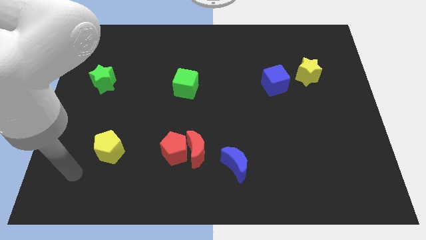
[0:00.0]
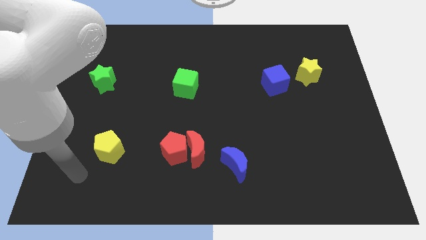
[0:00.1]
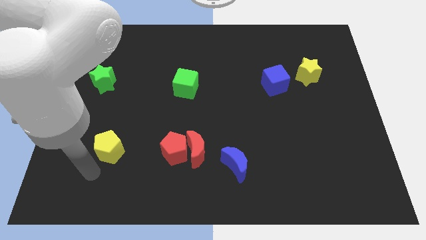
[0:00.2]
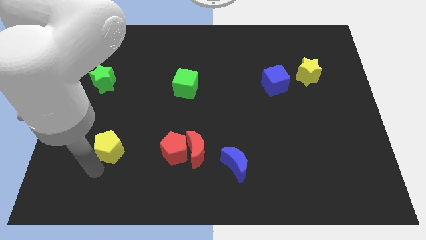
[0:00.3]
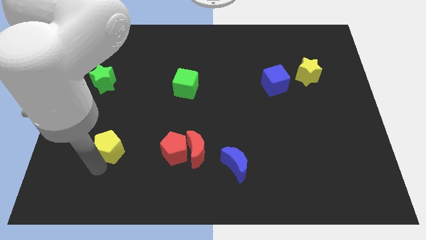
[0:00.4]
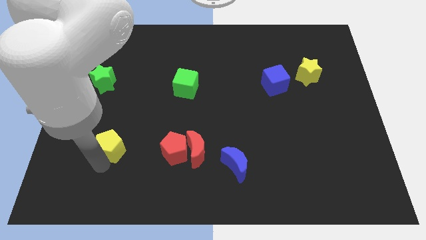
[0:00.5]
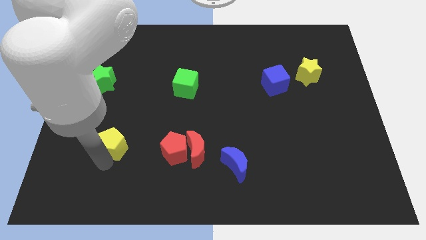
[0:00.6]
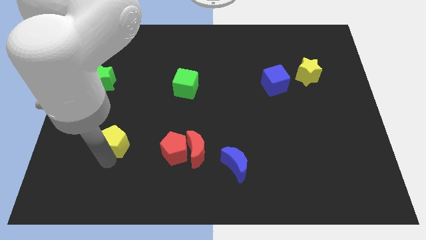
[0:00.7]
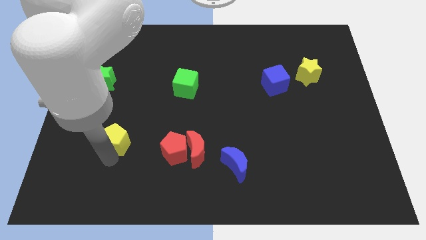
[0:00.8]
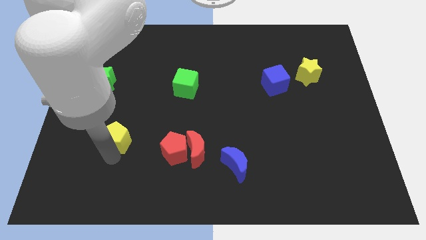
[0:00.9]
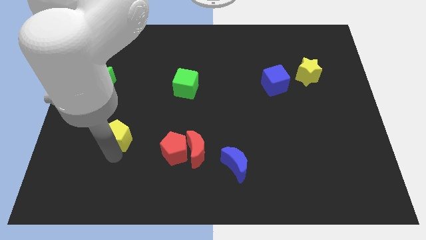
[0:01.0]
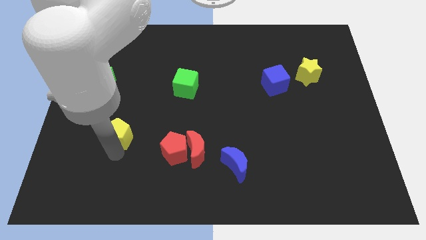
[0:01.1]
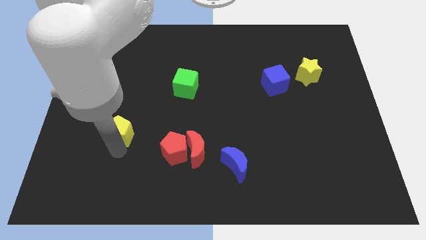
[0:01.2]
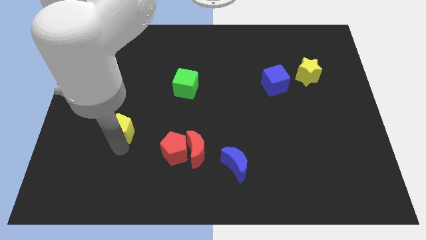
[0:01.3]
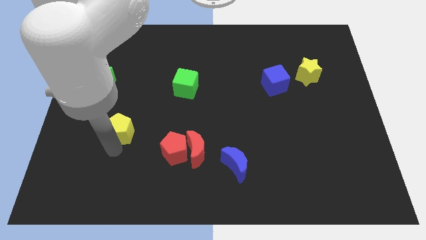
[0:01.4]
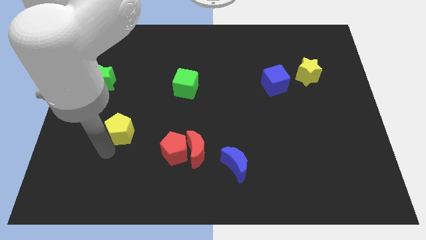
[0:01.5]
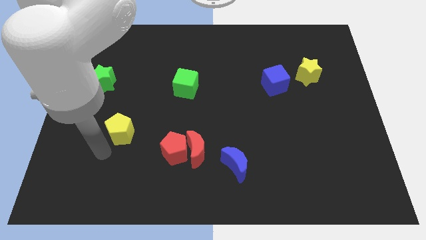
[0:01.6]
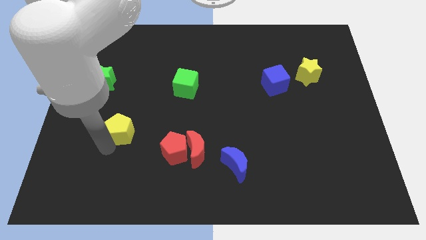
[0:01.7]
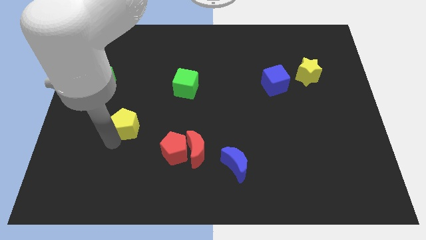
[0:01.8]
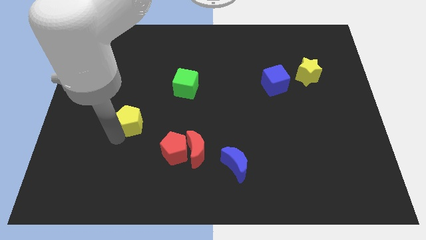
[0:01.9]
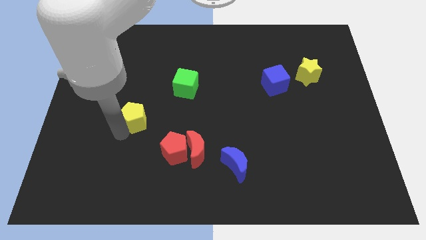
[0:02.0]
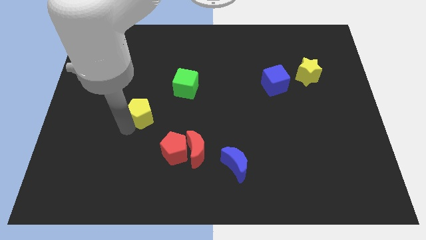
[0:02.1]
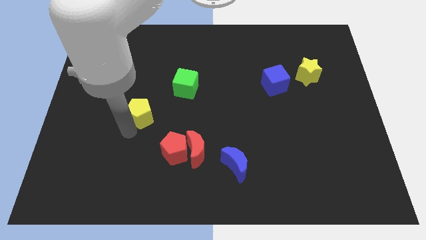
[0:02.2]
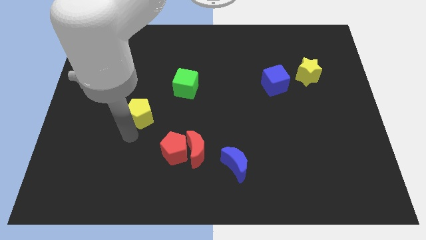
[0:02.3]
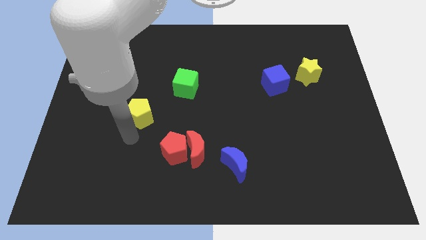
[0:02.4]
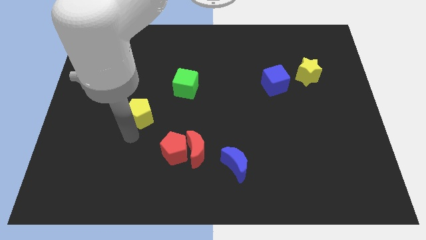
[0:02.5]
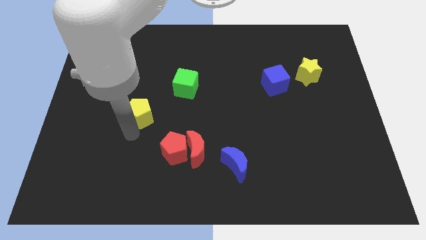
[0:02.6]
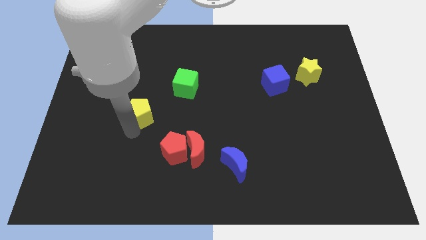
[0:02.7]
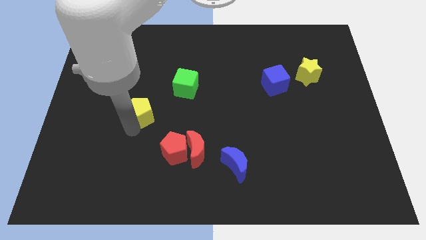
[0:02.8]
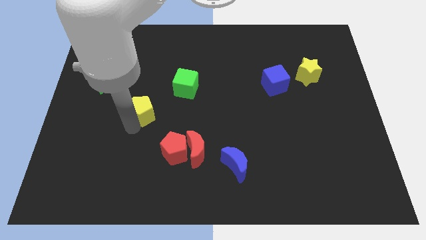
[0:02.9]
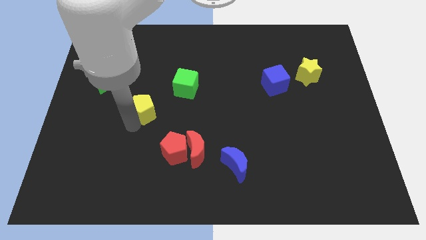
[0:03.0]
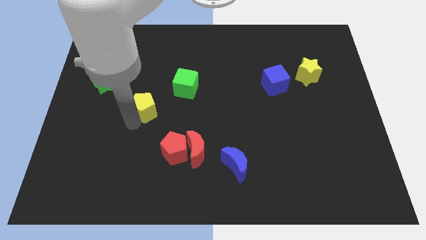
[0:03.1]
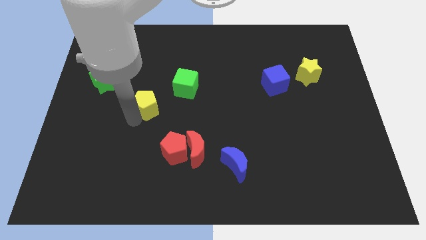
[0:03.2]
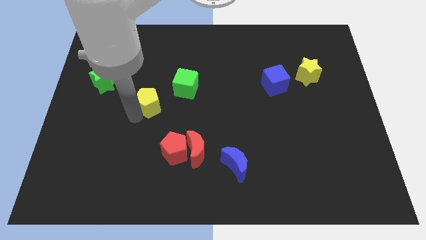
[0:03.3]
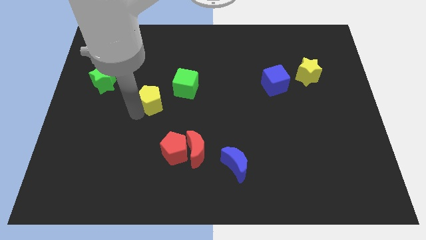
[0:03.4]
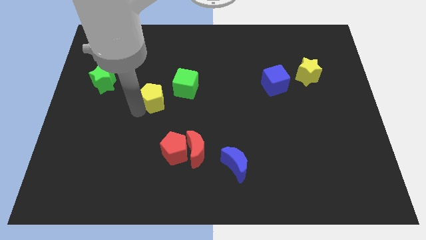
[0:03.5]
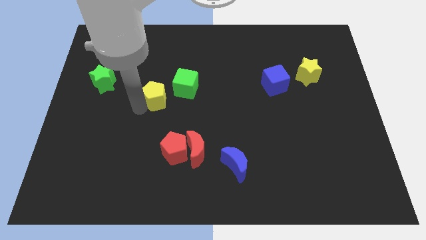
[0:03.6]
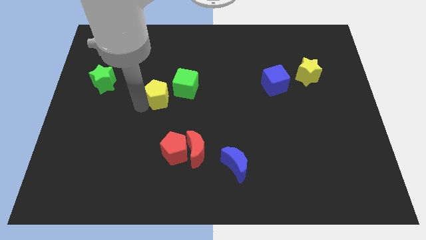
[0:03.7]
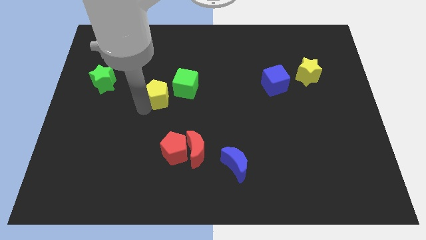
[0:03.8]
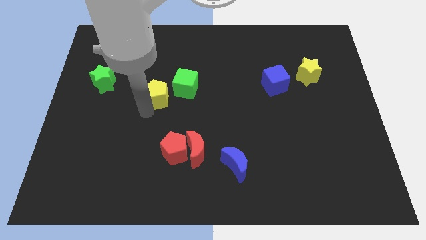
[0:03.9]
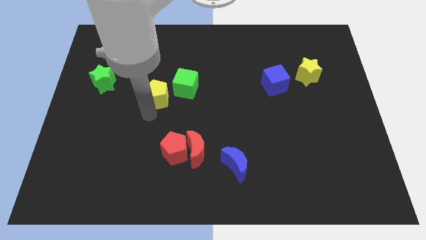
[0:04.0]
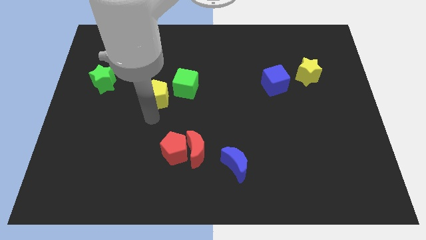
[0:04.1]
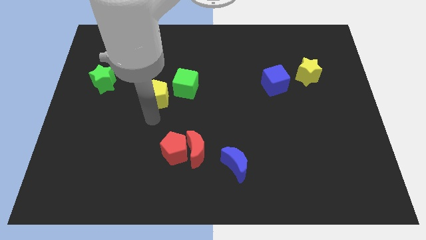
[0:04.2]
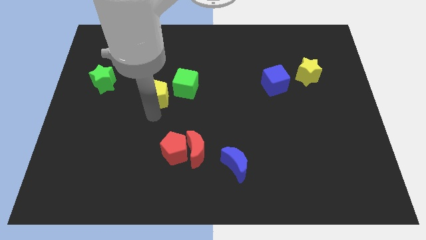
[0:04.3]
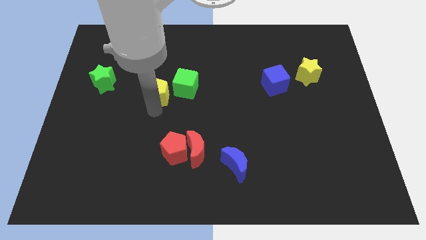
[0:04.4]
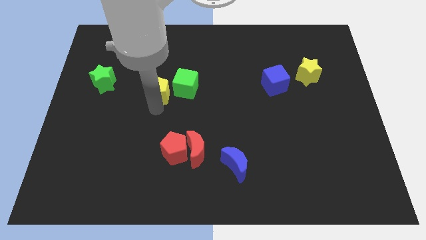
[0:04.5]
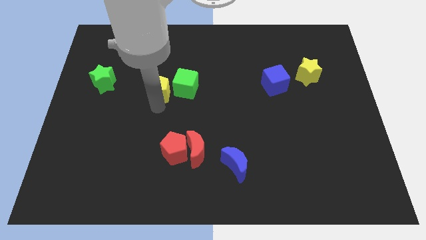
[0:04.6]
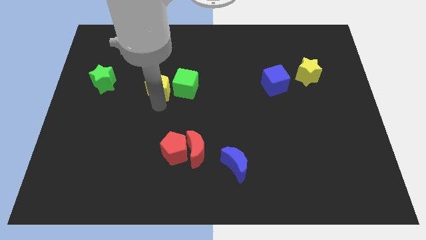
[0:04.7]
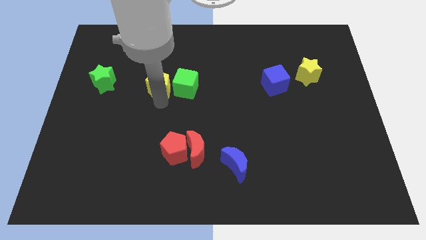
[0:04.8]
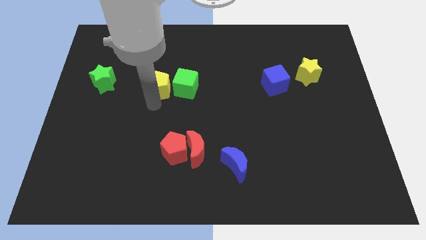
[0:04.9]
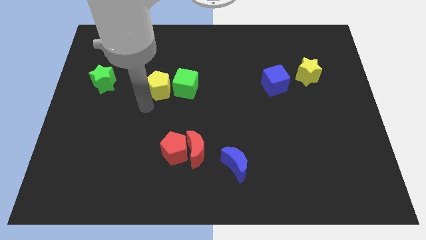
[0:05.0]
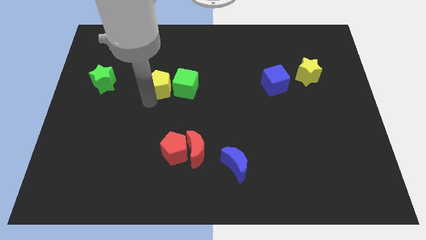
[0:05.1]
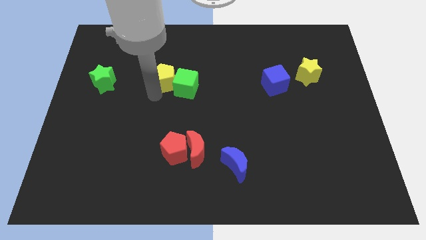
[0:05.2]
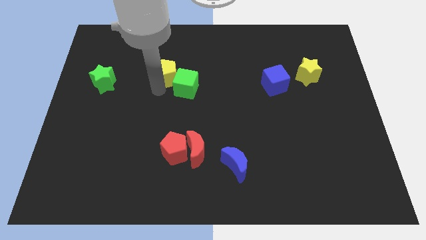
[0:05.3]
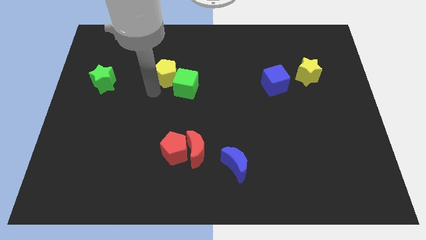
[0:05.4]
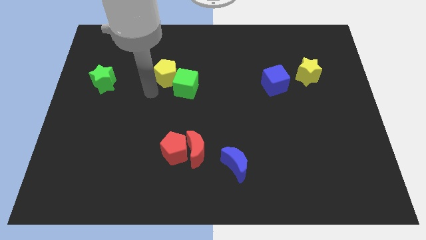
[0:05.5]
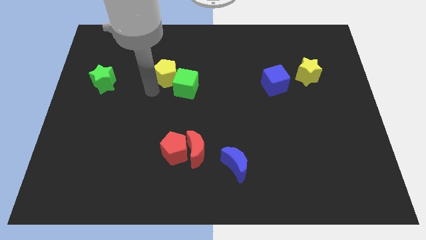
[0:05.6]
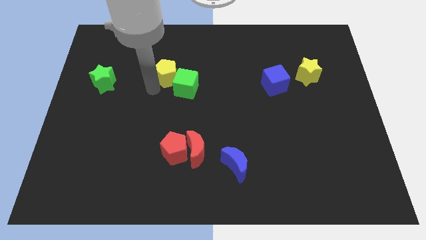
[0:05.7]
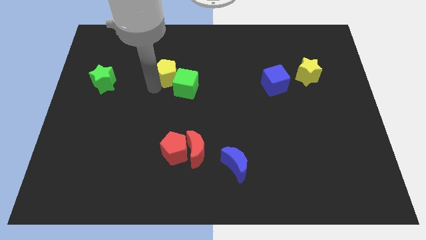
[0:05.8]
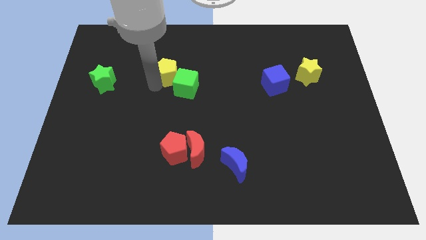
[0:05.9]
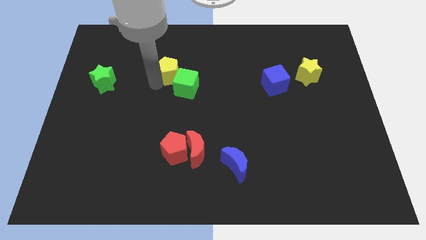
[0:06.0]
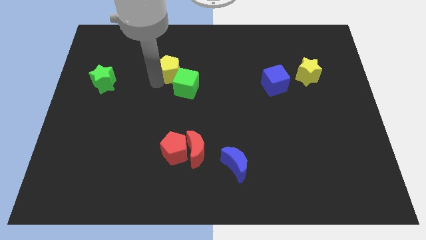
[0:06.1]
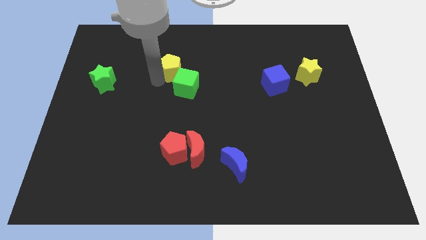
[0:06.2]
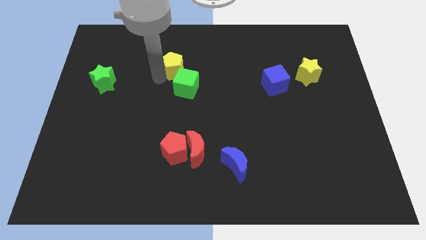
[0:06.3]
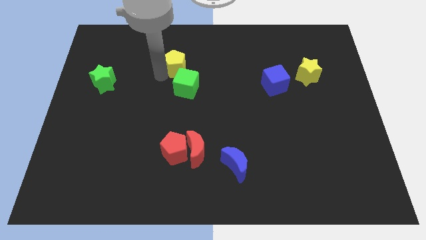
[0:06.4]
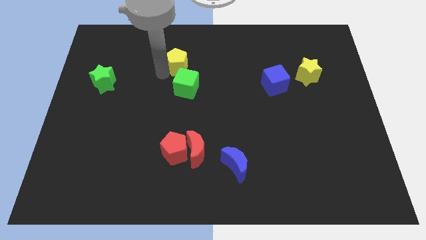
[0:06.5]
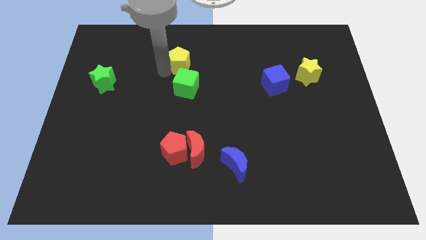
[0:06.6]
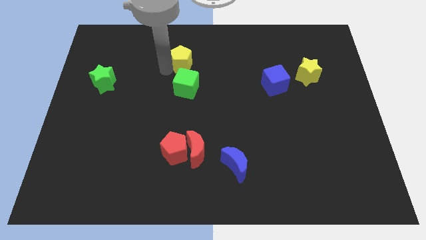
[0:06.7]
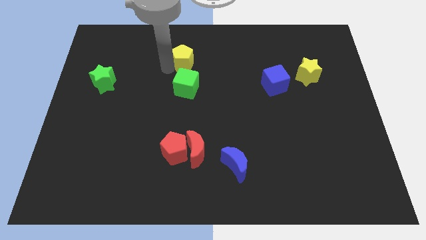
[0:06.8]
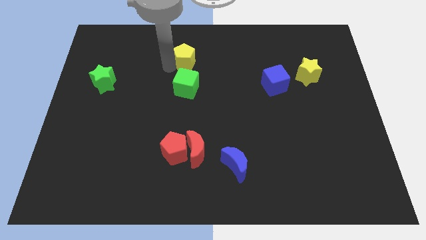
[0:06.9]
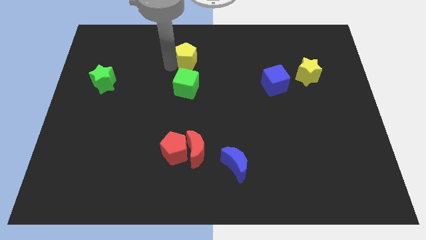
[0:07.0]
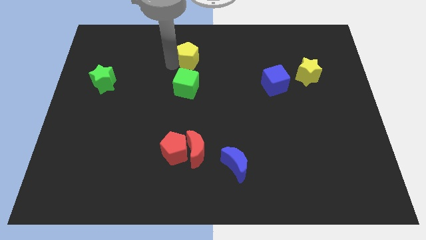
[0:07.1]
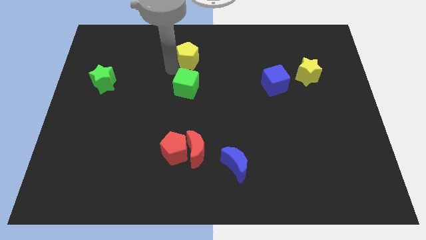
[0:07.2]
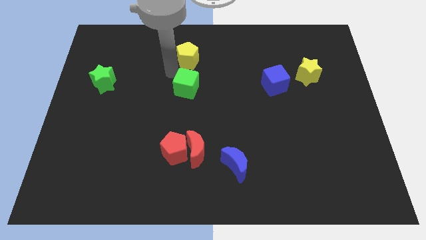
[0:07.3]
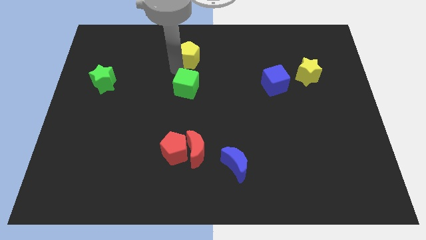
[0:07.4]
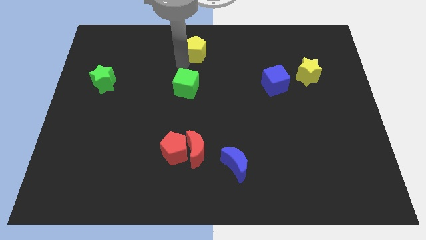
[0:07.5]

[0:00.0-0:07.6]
put the yellow pentagon to the top
